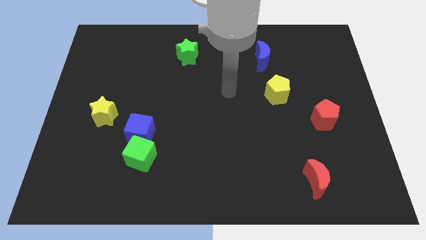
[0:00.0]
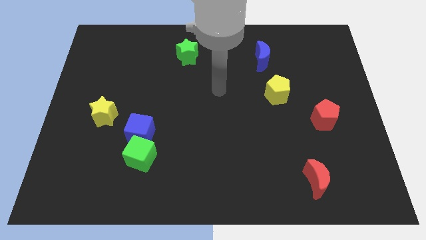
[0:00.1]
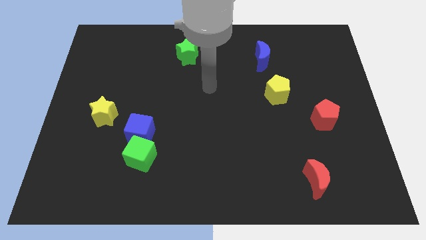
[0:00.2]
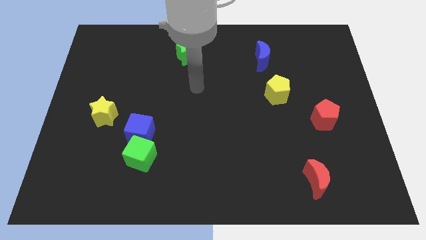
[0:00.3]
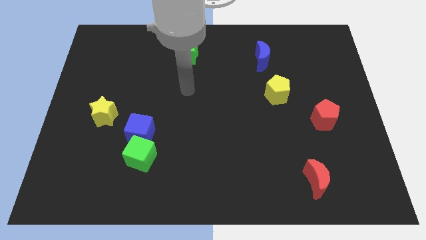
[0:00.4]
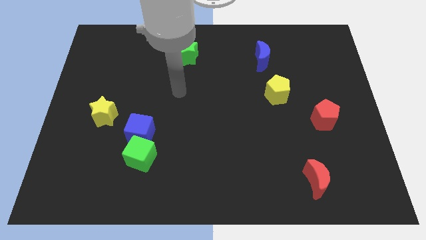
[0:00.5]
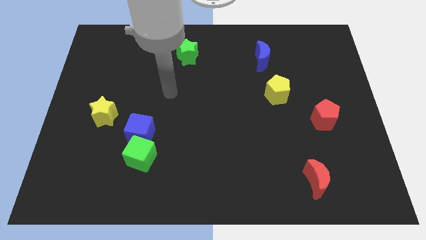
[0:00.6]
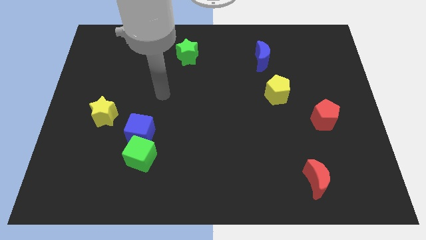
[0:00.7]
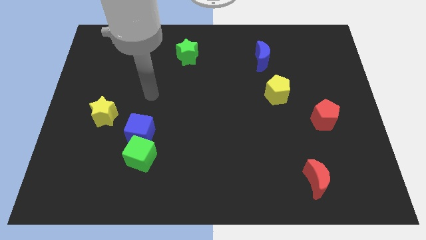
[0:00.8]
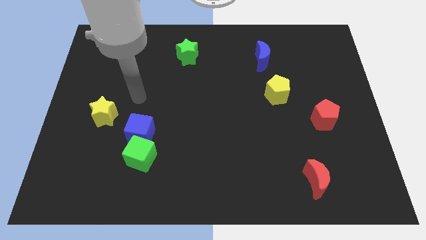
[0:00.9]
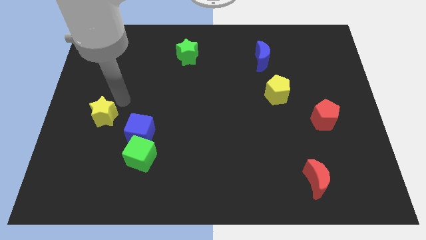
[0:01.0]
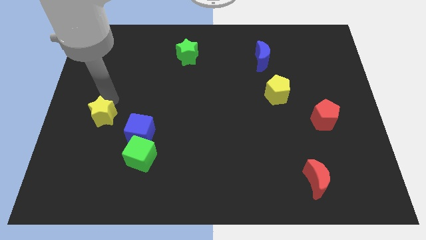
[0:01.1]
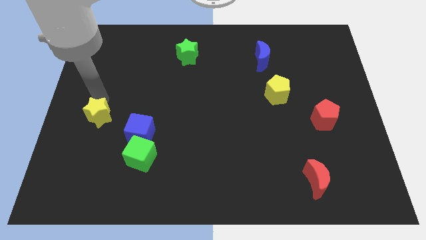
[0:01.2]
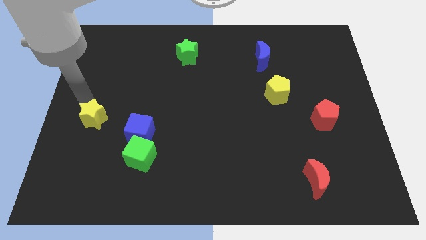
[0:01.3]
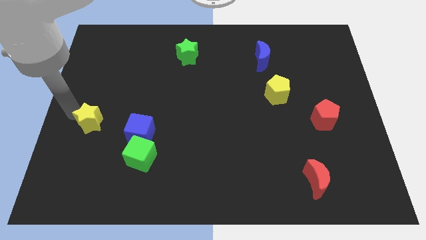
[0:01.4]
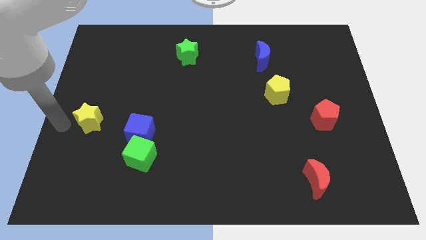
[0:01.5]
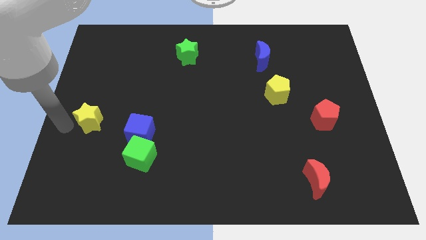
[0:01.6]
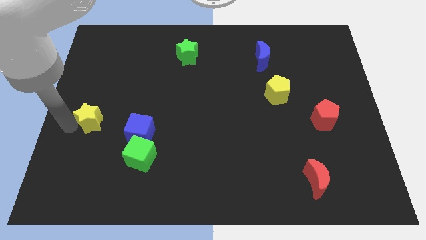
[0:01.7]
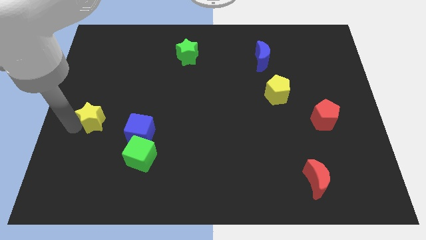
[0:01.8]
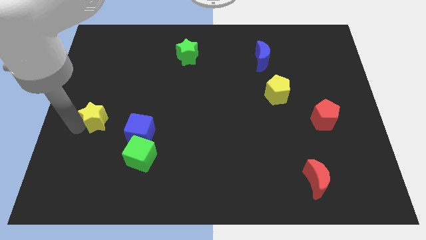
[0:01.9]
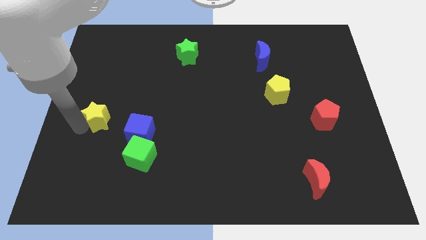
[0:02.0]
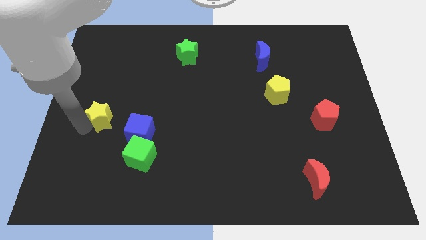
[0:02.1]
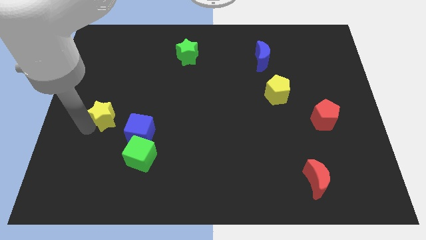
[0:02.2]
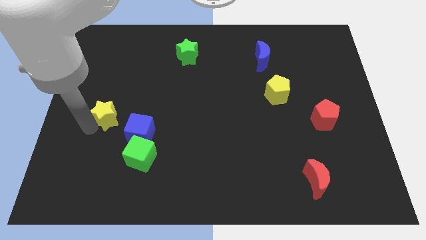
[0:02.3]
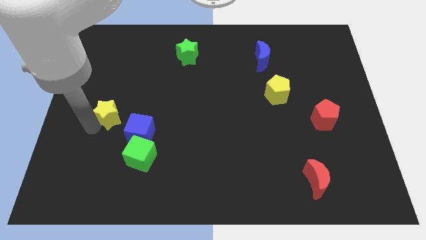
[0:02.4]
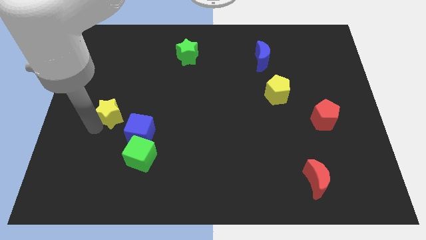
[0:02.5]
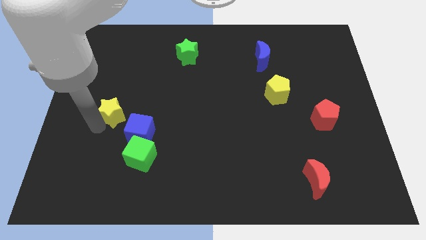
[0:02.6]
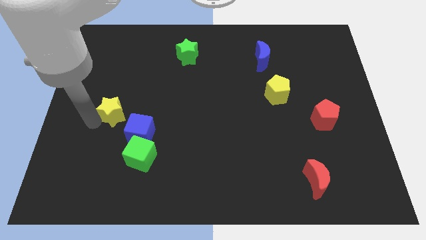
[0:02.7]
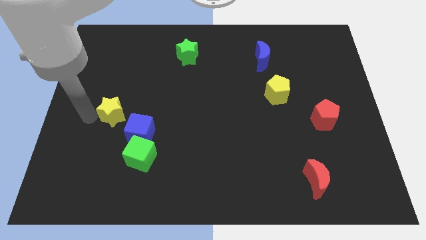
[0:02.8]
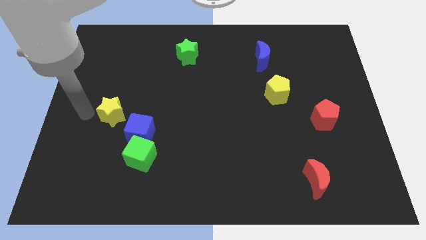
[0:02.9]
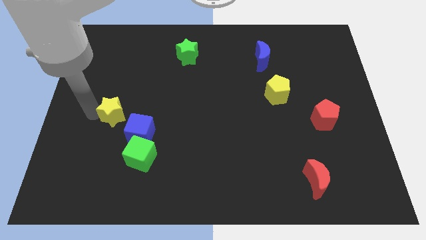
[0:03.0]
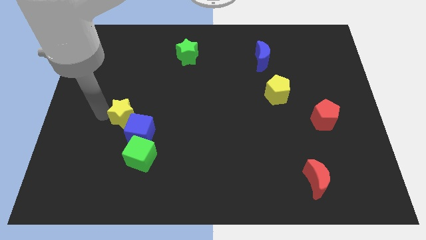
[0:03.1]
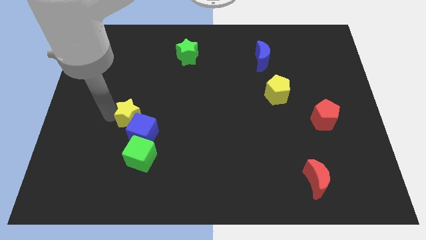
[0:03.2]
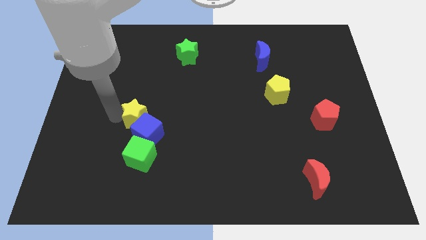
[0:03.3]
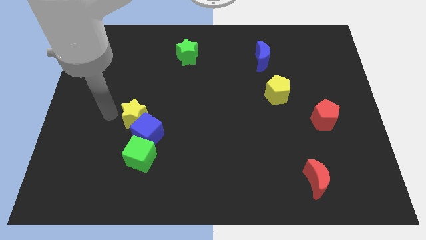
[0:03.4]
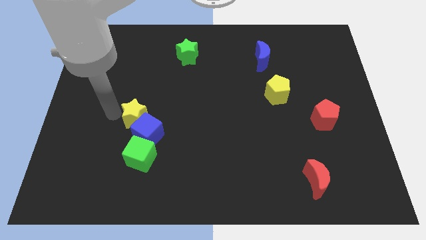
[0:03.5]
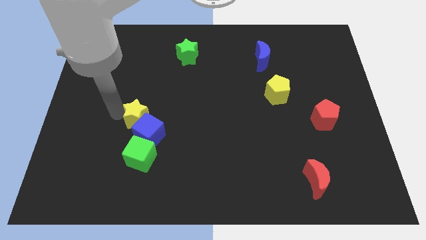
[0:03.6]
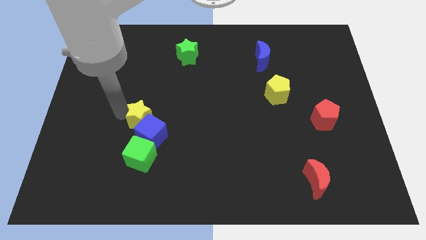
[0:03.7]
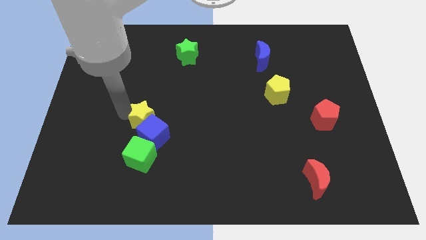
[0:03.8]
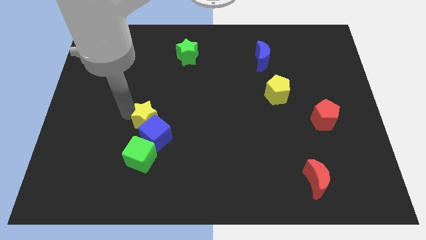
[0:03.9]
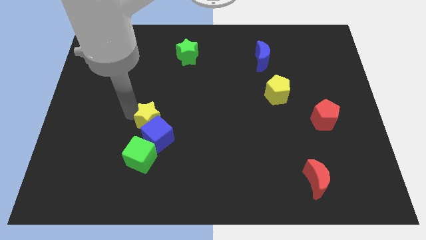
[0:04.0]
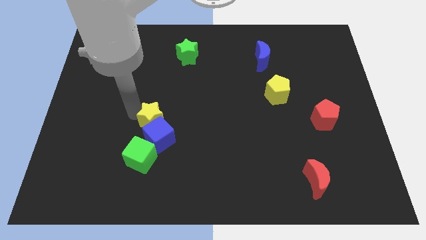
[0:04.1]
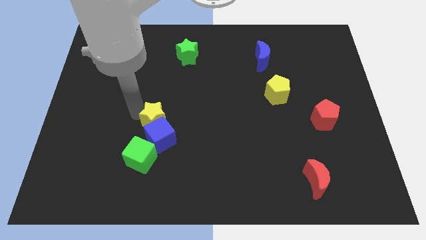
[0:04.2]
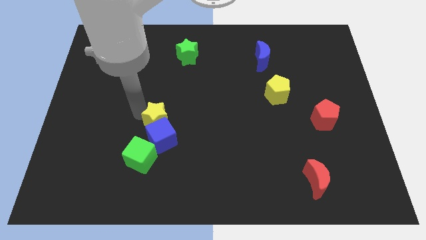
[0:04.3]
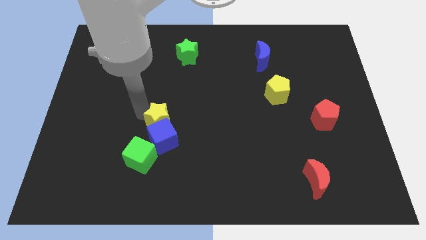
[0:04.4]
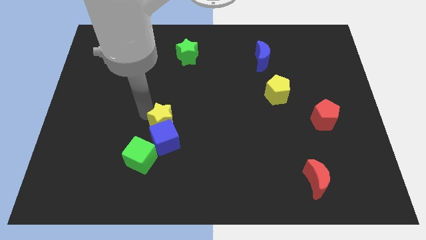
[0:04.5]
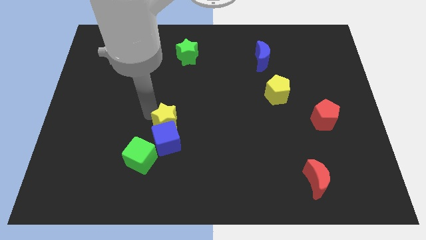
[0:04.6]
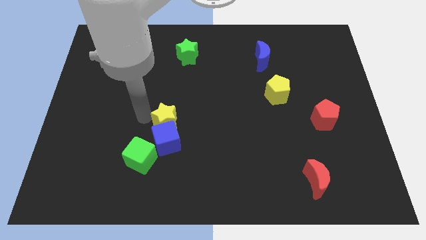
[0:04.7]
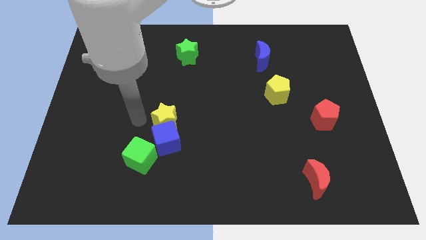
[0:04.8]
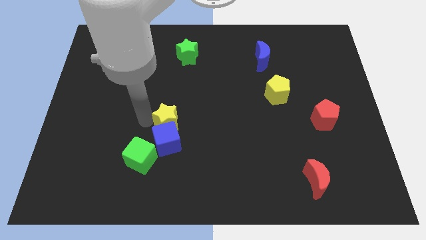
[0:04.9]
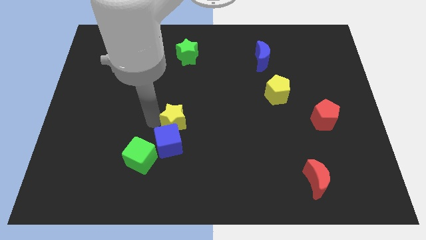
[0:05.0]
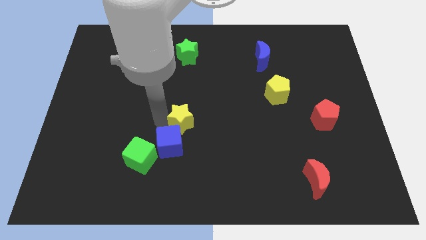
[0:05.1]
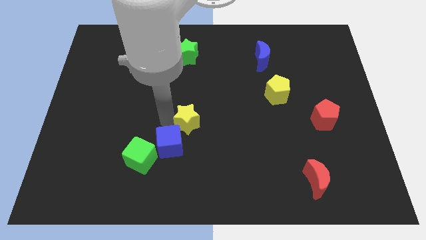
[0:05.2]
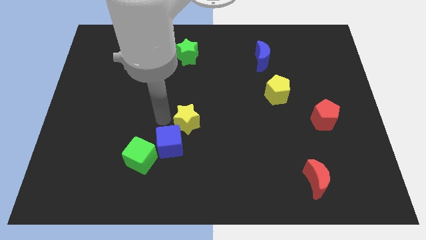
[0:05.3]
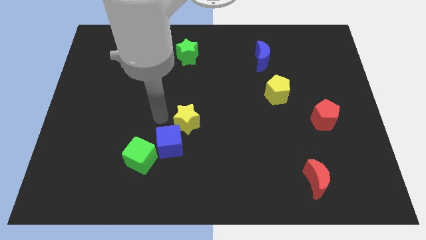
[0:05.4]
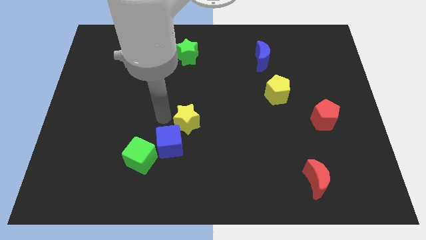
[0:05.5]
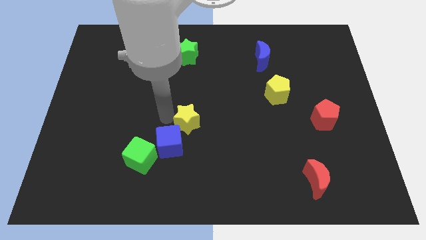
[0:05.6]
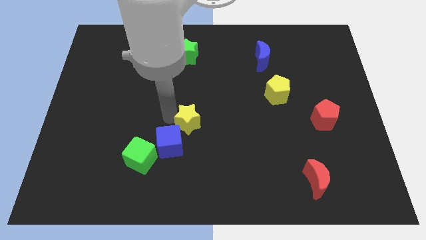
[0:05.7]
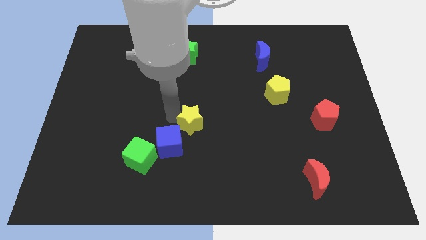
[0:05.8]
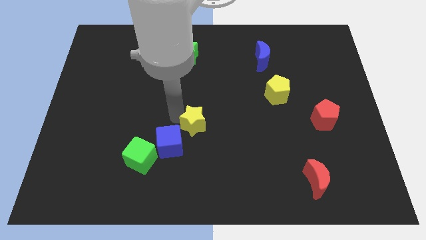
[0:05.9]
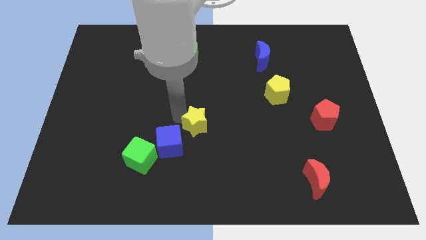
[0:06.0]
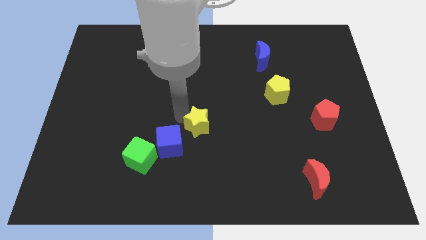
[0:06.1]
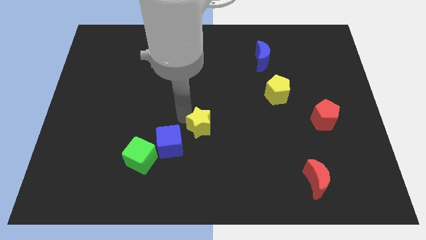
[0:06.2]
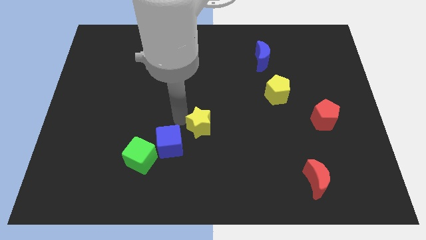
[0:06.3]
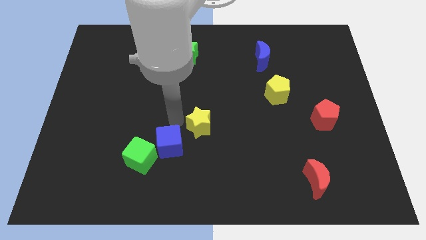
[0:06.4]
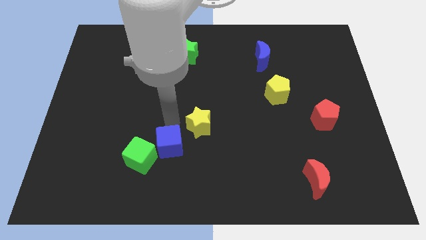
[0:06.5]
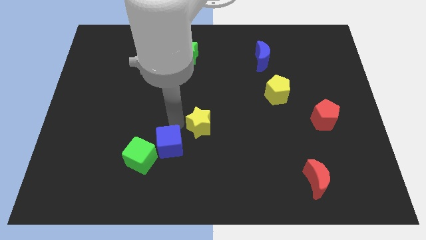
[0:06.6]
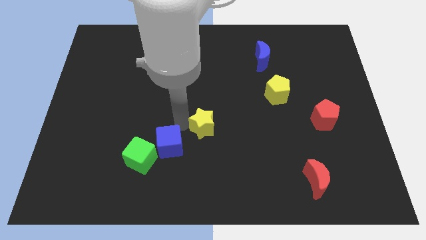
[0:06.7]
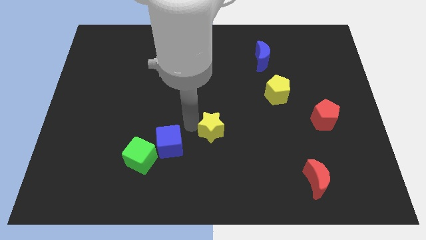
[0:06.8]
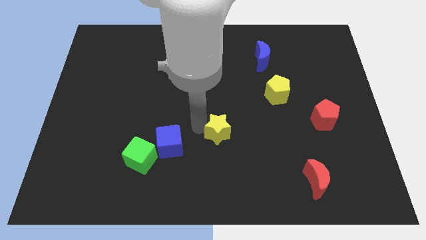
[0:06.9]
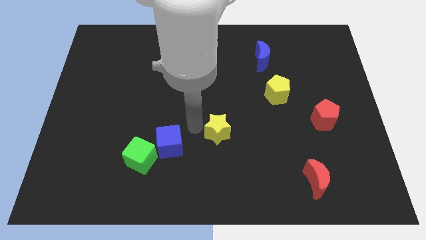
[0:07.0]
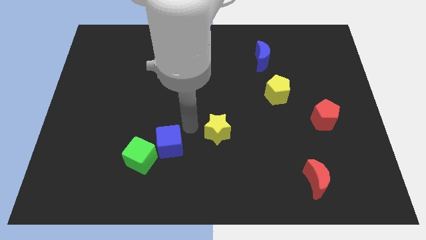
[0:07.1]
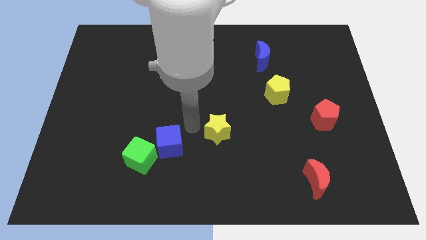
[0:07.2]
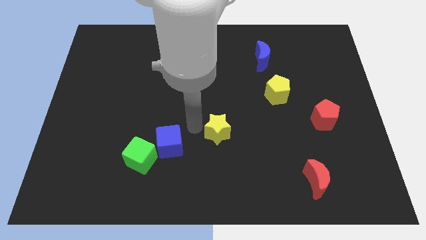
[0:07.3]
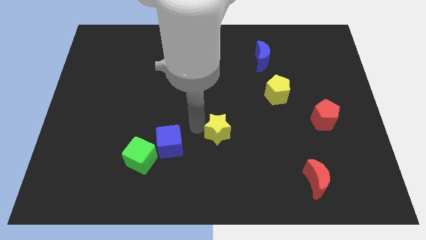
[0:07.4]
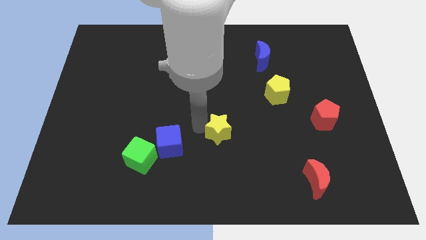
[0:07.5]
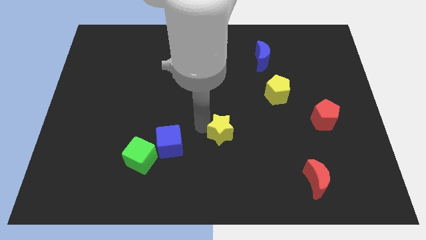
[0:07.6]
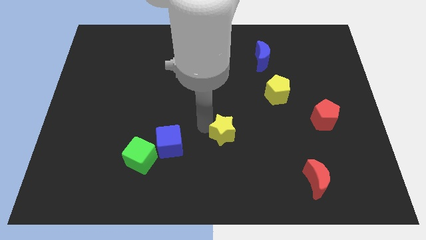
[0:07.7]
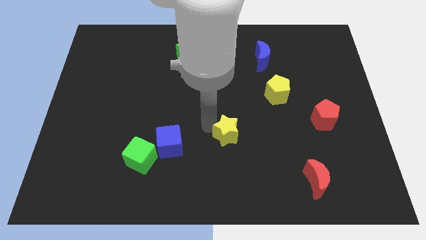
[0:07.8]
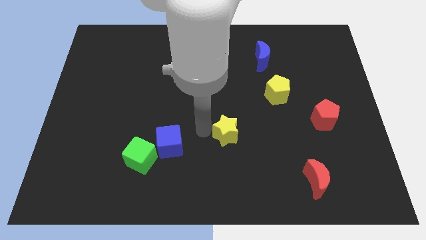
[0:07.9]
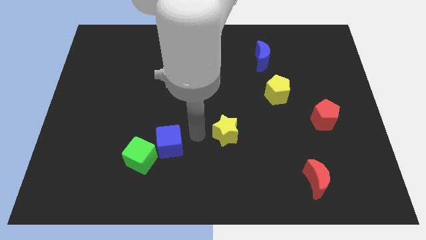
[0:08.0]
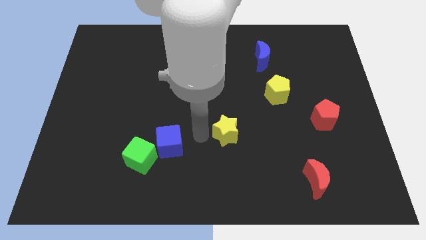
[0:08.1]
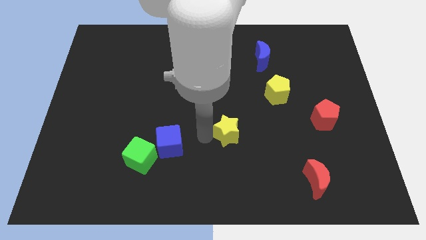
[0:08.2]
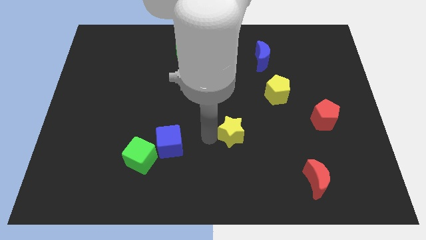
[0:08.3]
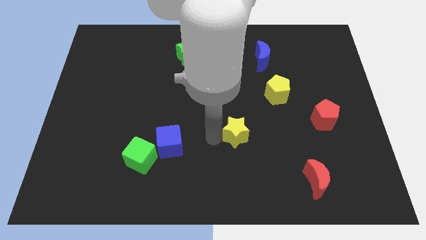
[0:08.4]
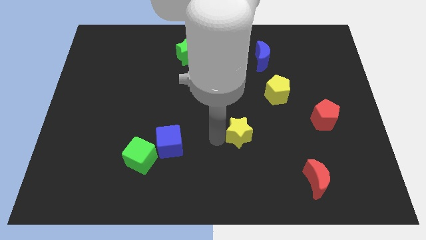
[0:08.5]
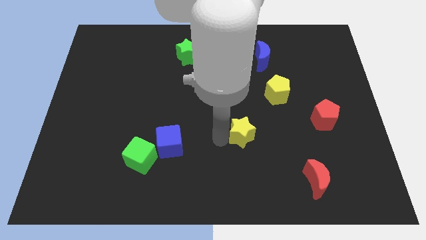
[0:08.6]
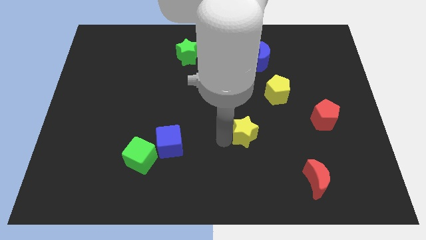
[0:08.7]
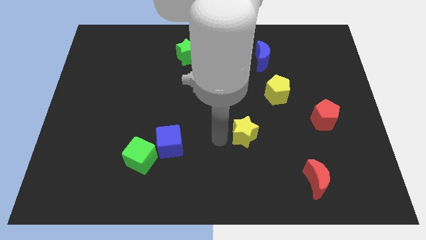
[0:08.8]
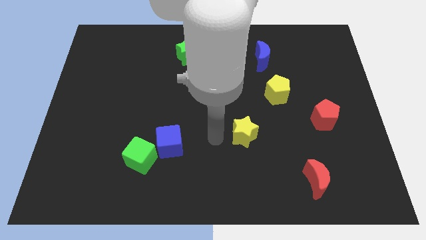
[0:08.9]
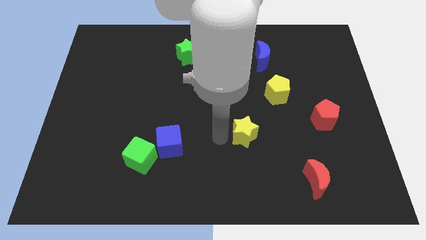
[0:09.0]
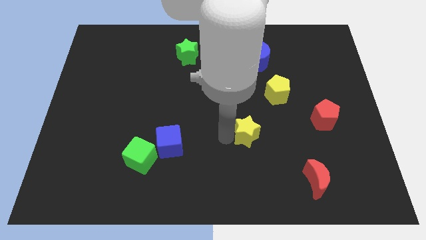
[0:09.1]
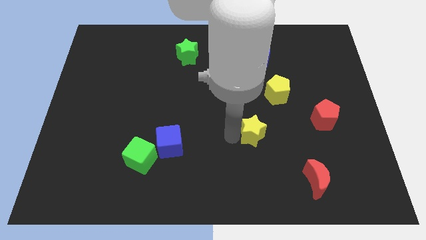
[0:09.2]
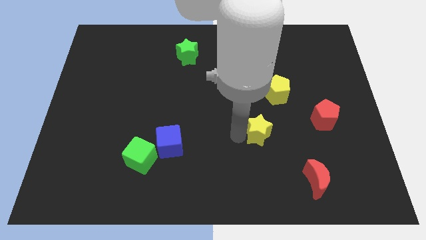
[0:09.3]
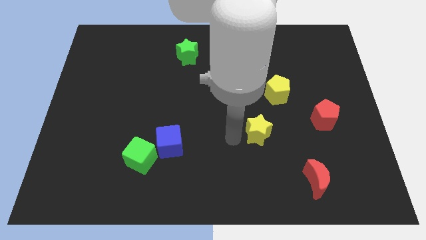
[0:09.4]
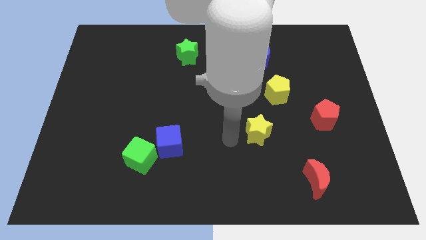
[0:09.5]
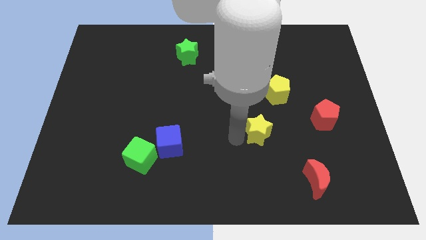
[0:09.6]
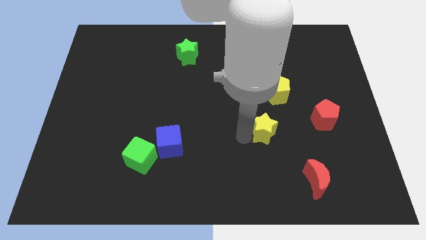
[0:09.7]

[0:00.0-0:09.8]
move the yellow star to the bottom of the yellow pentagon
